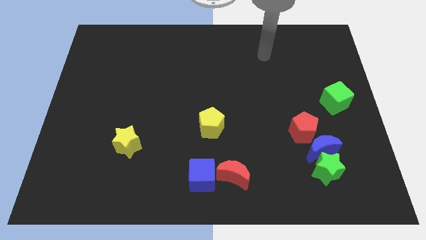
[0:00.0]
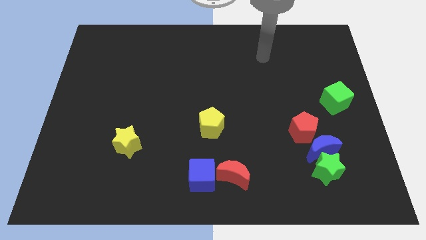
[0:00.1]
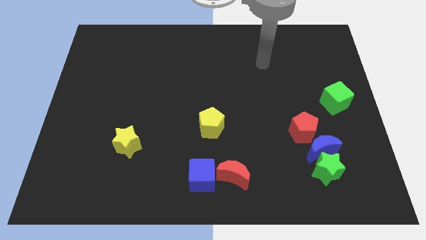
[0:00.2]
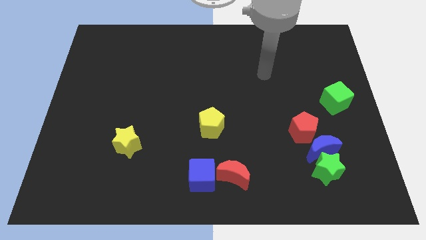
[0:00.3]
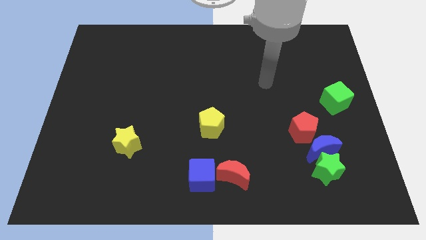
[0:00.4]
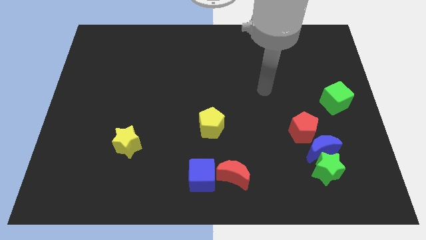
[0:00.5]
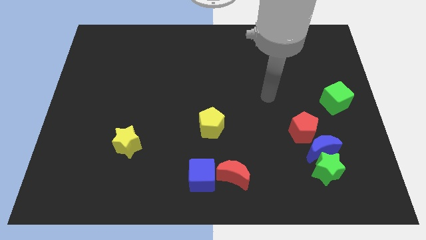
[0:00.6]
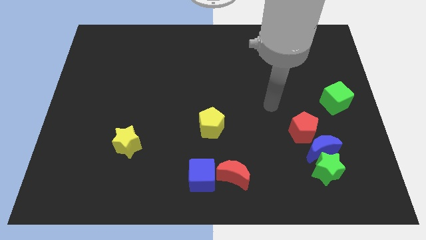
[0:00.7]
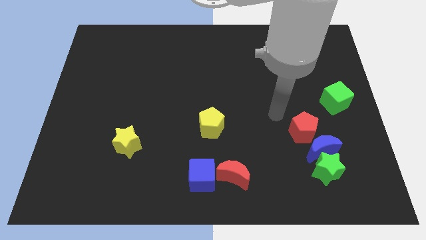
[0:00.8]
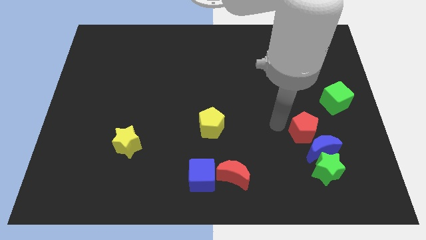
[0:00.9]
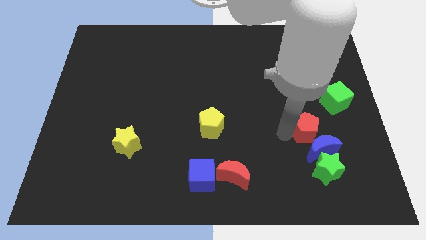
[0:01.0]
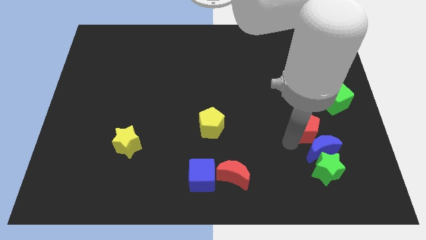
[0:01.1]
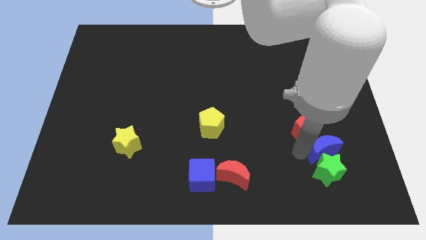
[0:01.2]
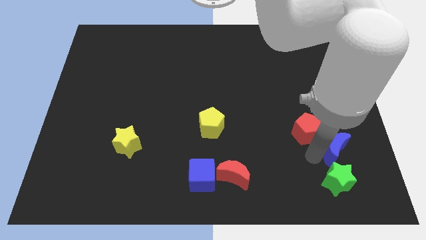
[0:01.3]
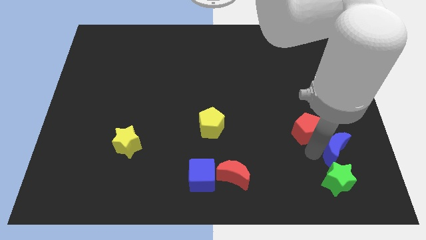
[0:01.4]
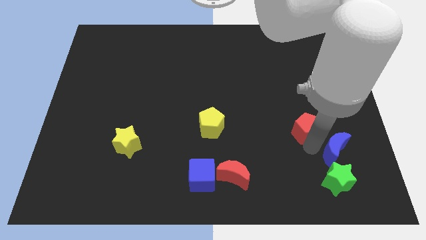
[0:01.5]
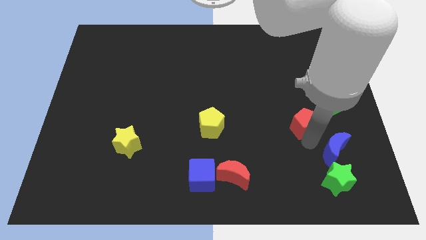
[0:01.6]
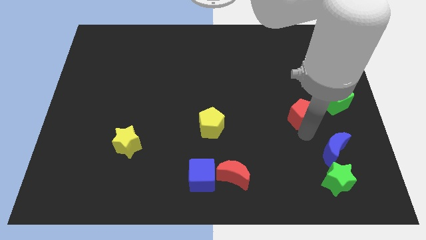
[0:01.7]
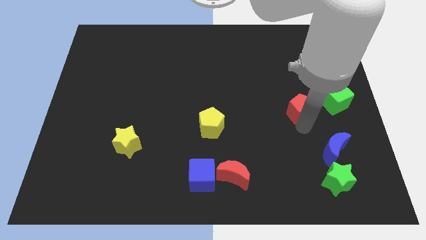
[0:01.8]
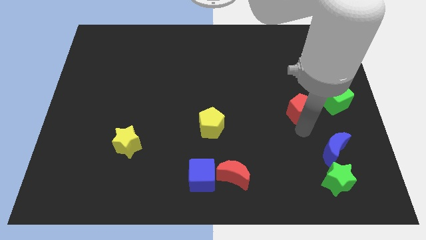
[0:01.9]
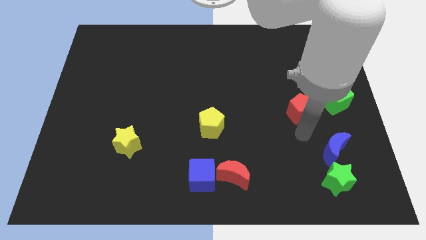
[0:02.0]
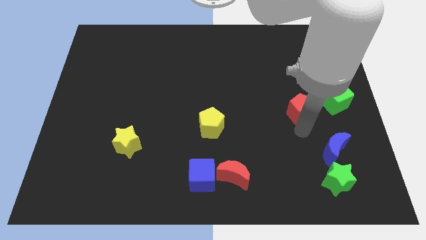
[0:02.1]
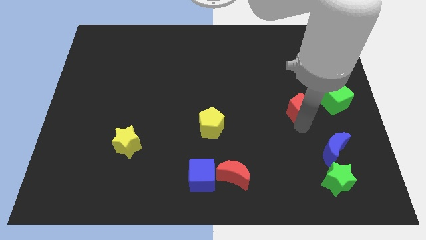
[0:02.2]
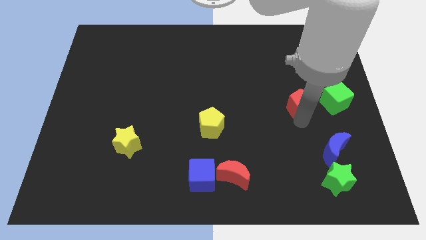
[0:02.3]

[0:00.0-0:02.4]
push the red pentagon up a bit

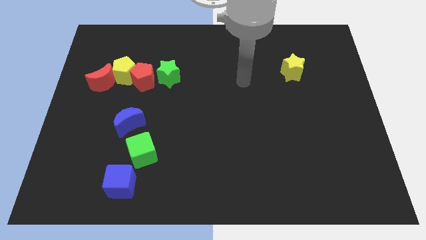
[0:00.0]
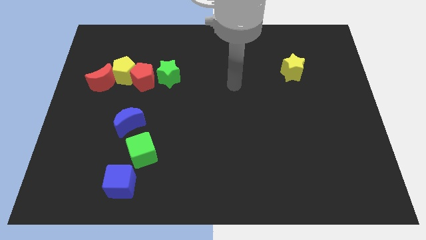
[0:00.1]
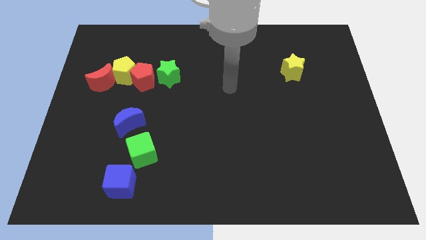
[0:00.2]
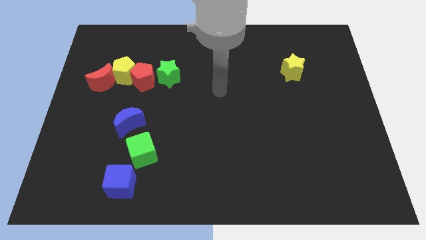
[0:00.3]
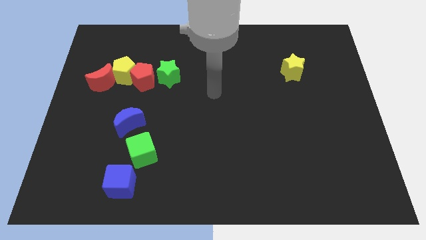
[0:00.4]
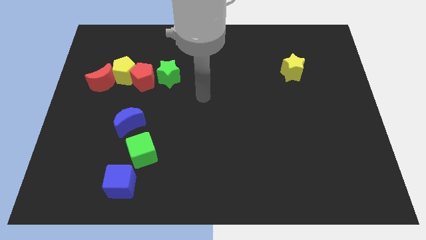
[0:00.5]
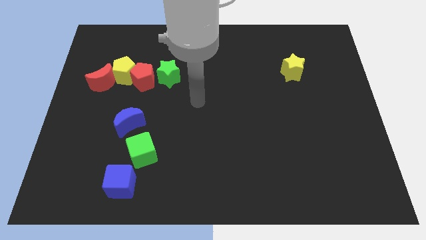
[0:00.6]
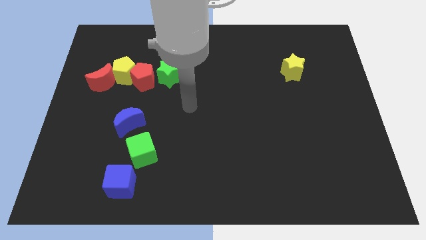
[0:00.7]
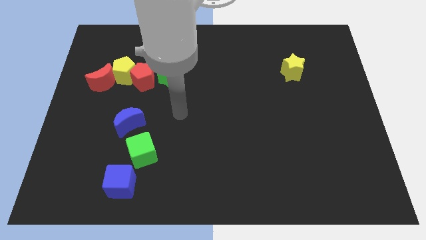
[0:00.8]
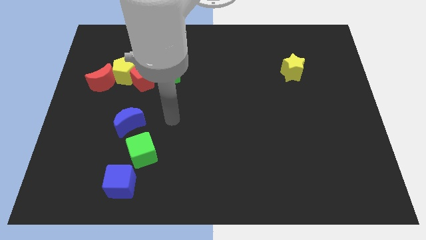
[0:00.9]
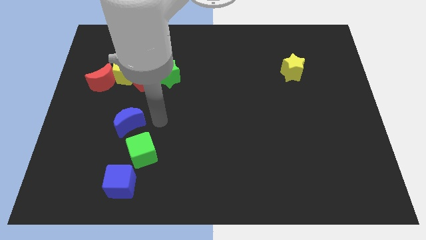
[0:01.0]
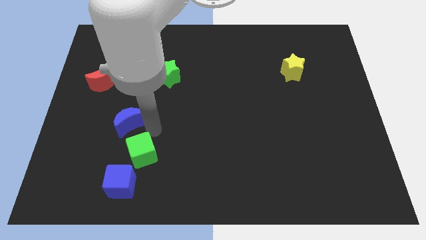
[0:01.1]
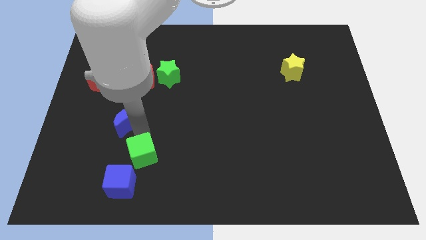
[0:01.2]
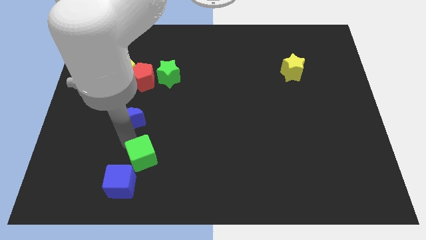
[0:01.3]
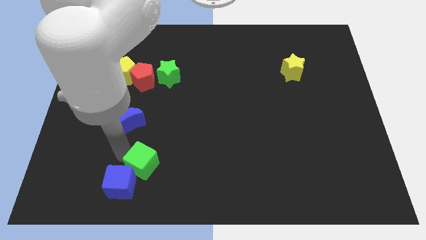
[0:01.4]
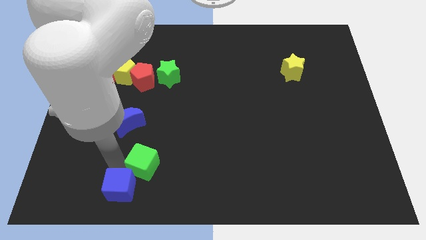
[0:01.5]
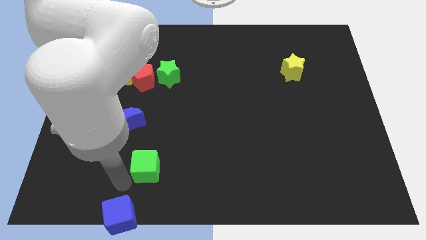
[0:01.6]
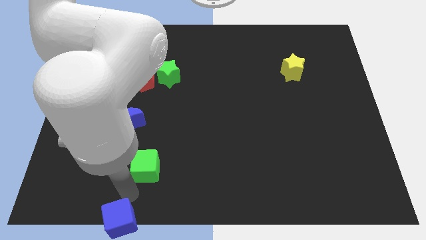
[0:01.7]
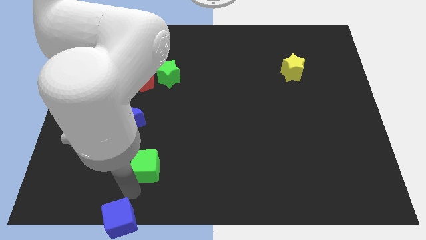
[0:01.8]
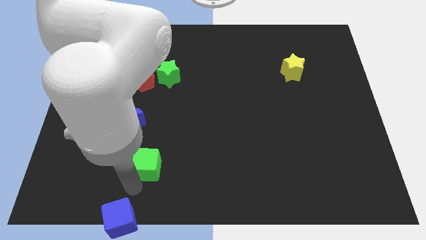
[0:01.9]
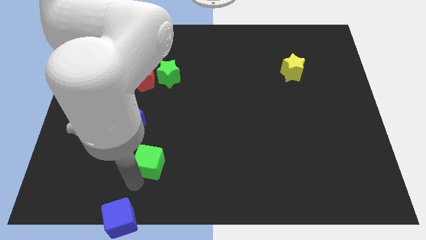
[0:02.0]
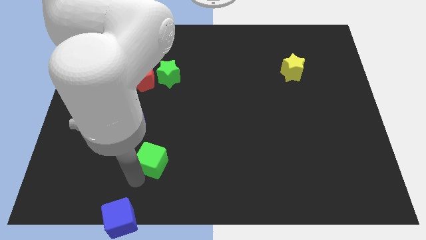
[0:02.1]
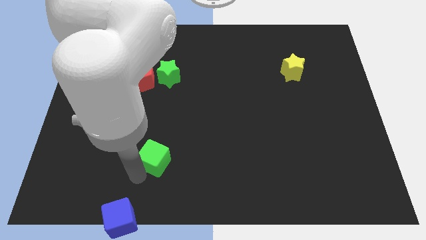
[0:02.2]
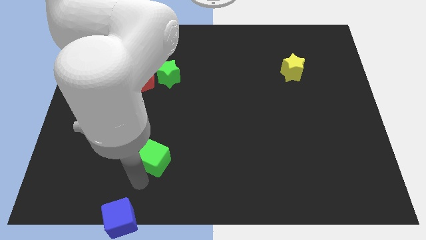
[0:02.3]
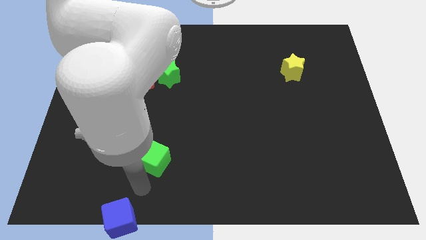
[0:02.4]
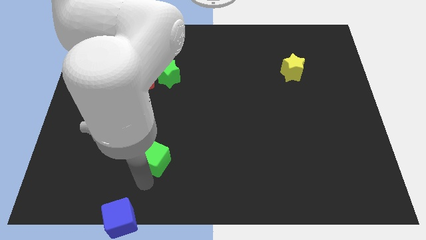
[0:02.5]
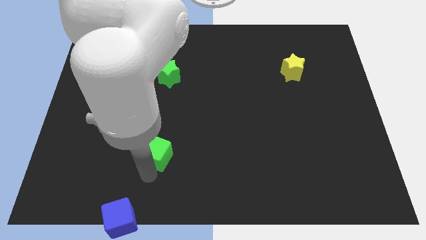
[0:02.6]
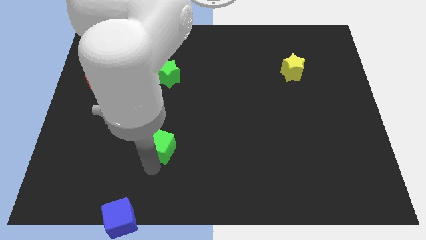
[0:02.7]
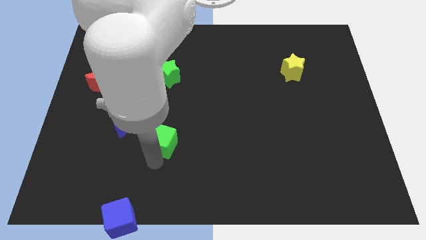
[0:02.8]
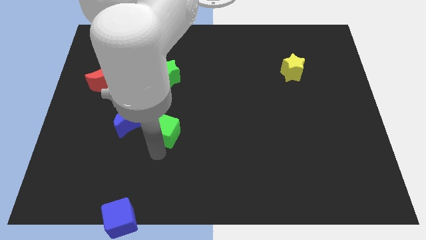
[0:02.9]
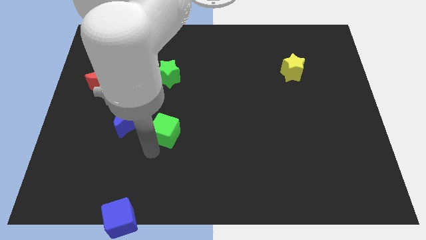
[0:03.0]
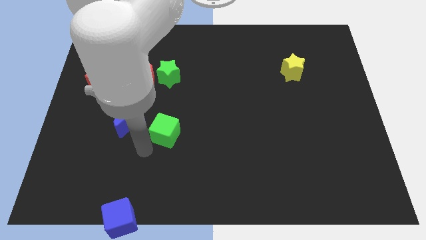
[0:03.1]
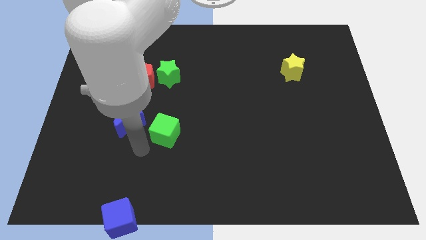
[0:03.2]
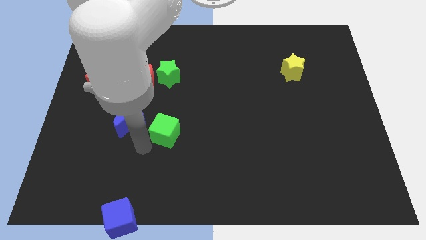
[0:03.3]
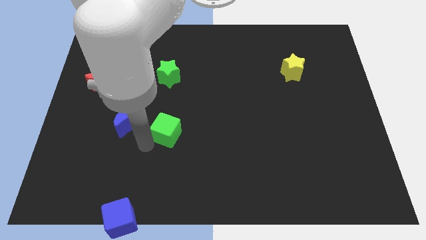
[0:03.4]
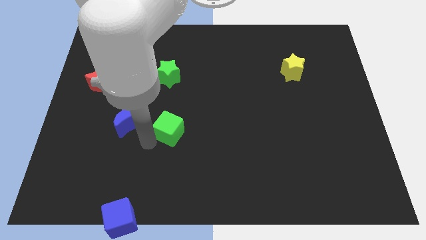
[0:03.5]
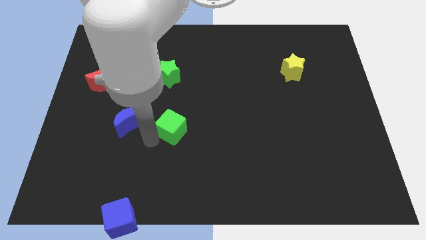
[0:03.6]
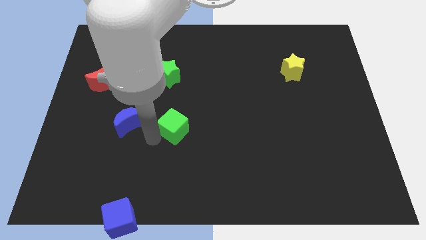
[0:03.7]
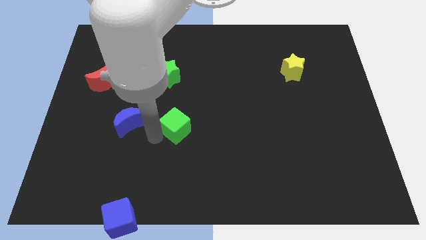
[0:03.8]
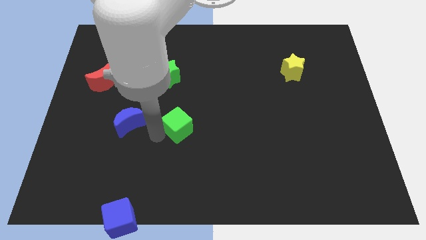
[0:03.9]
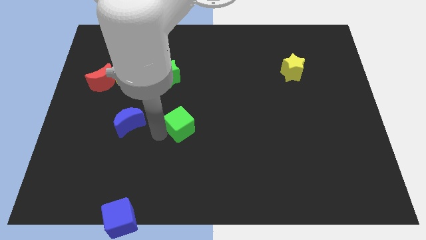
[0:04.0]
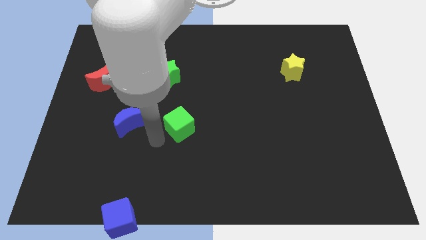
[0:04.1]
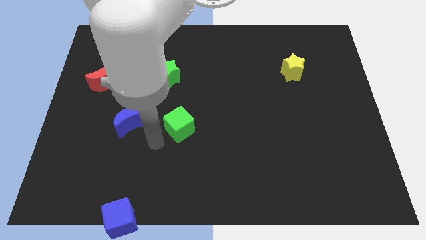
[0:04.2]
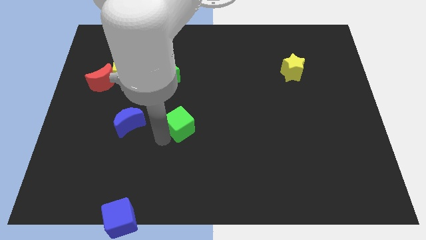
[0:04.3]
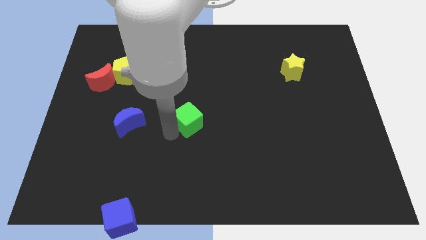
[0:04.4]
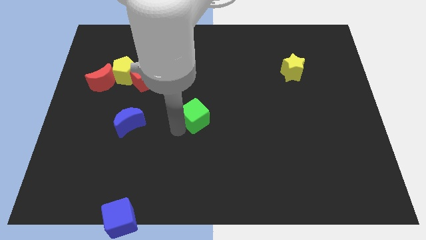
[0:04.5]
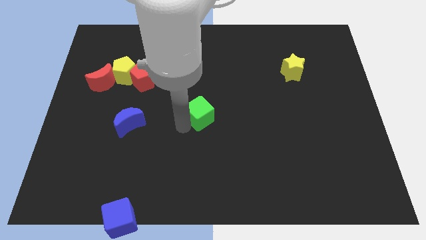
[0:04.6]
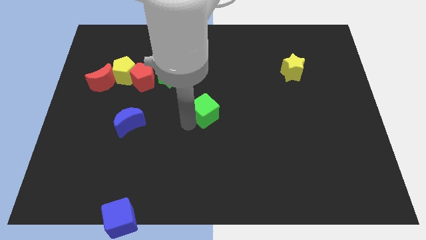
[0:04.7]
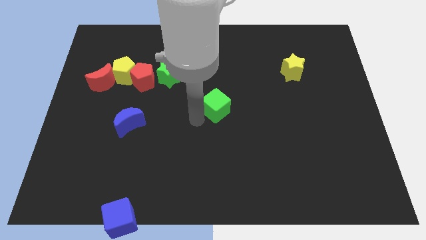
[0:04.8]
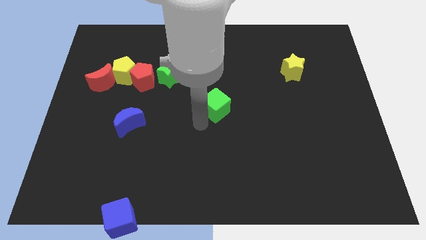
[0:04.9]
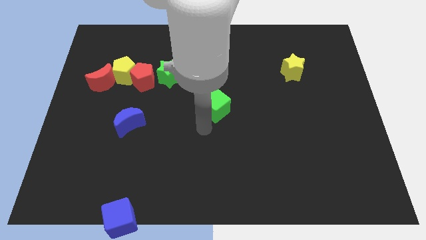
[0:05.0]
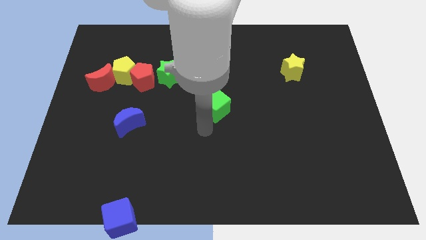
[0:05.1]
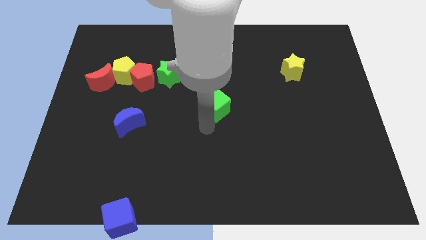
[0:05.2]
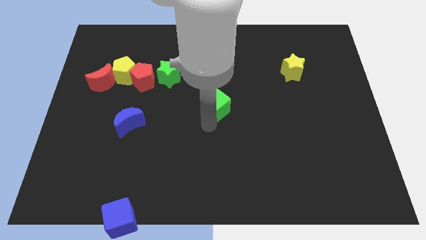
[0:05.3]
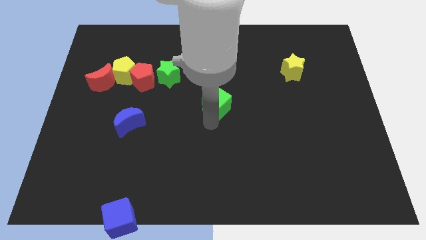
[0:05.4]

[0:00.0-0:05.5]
slide the green cube upwards and then right

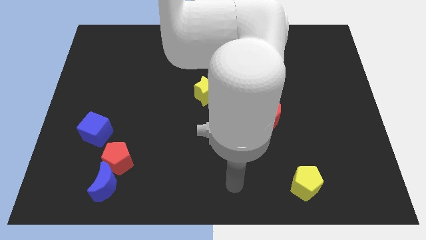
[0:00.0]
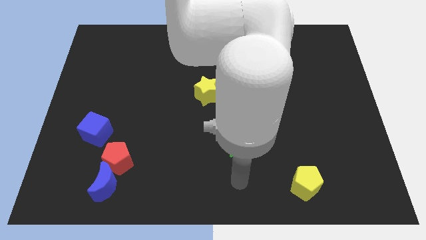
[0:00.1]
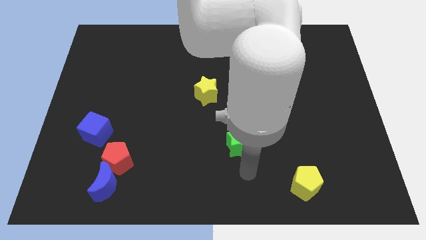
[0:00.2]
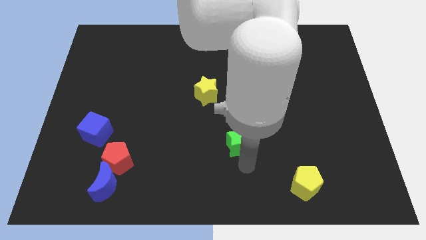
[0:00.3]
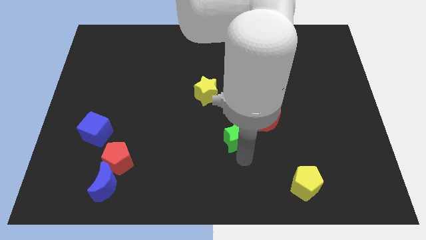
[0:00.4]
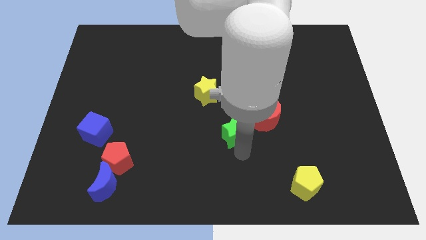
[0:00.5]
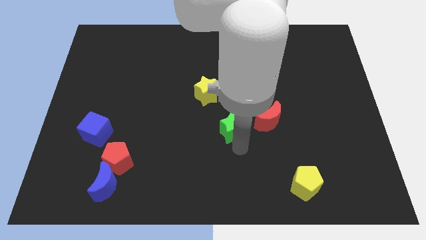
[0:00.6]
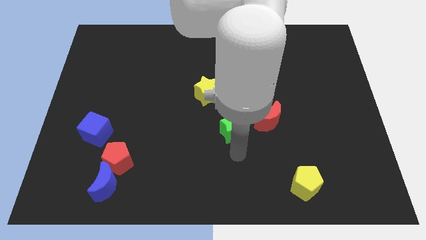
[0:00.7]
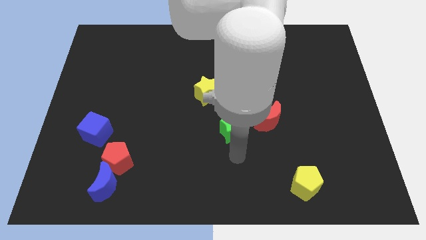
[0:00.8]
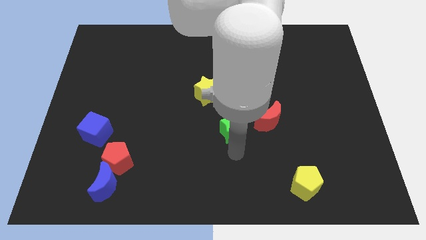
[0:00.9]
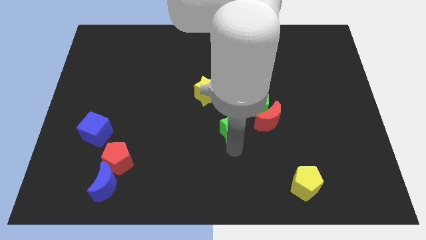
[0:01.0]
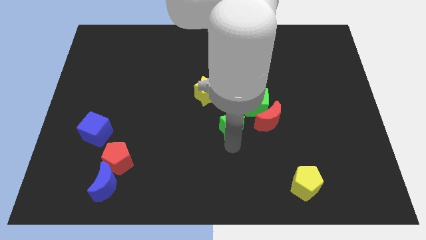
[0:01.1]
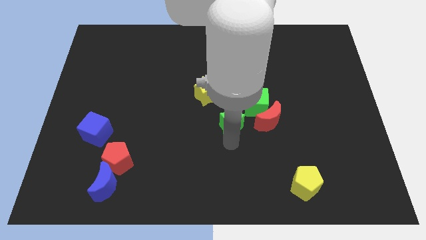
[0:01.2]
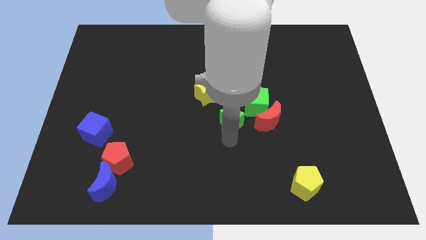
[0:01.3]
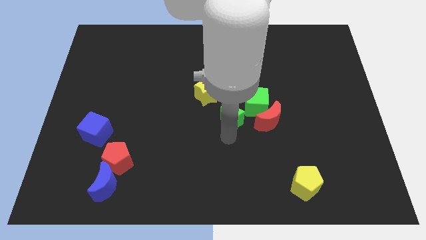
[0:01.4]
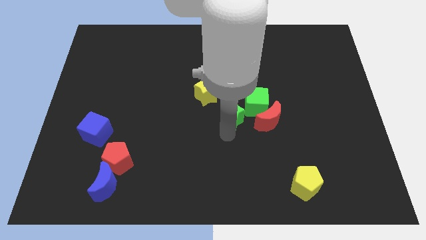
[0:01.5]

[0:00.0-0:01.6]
move the green star somewhat up
